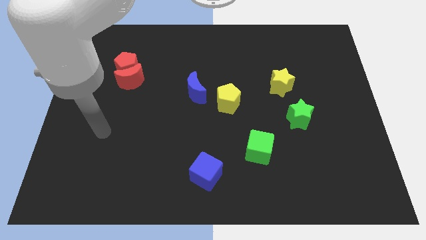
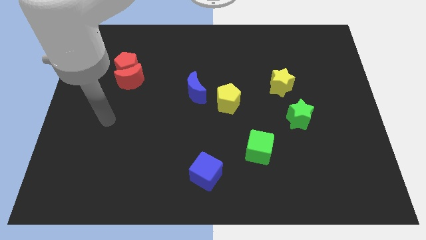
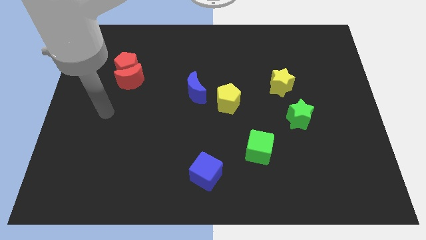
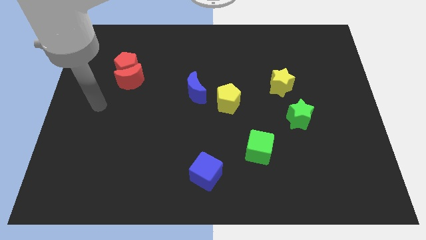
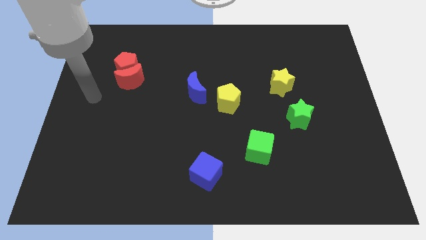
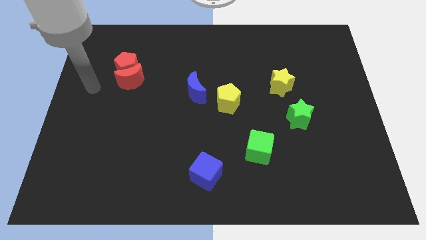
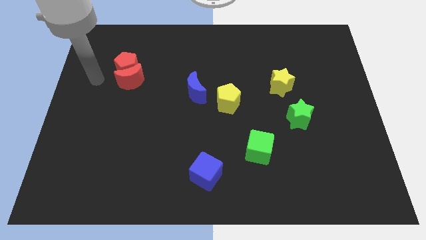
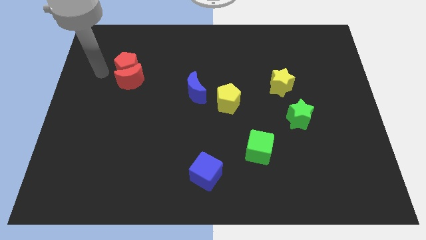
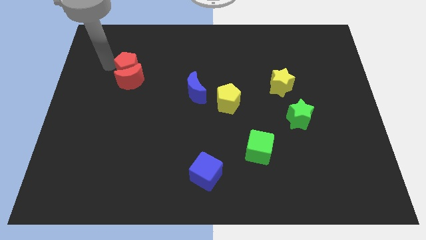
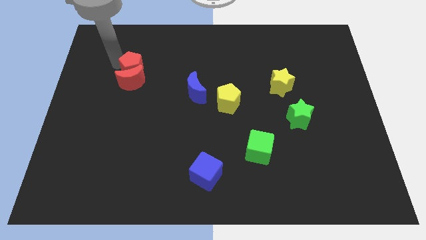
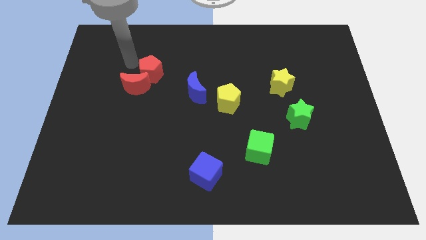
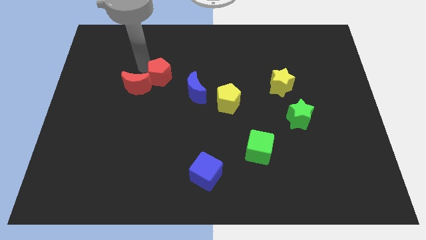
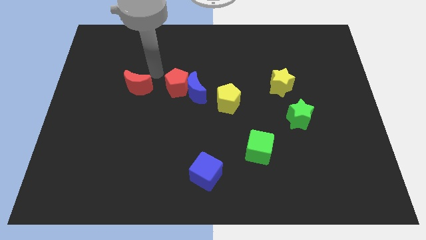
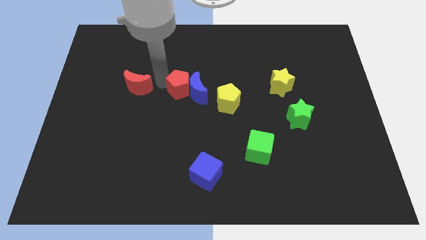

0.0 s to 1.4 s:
pull the red moon apart from the red pentagon

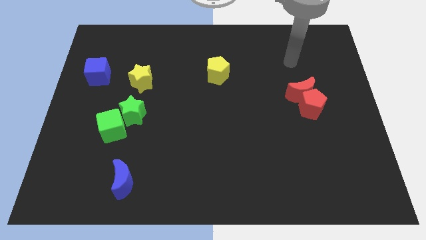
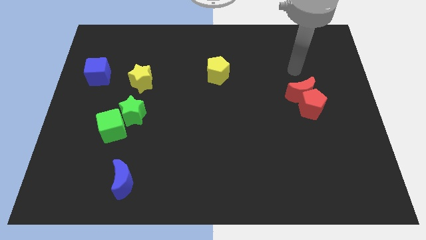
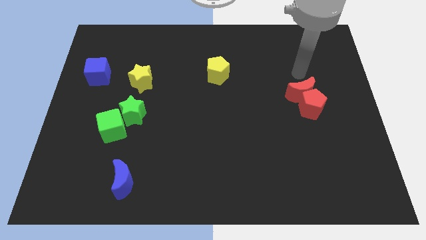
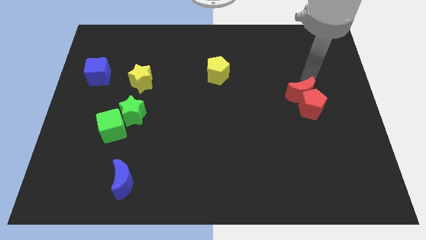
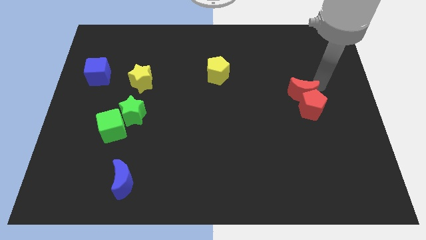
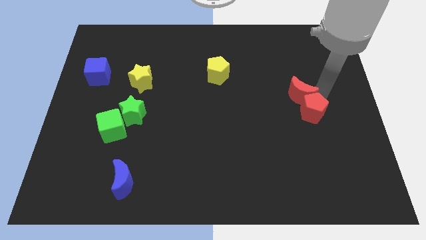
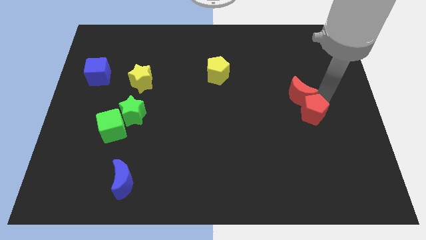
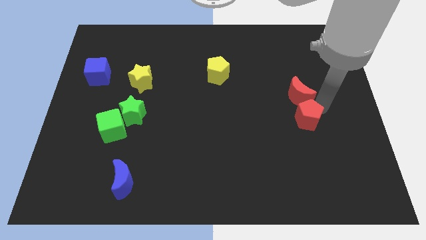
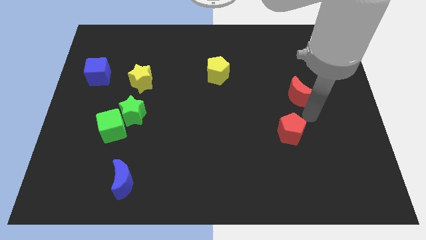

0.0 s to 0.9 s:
separate the red moon from the red pentagon

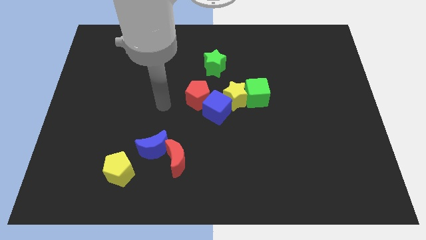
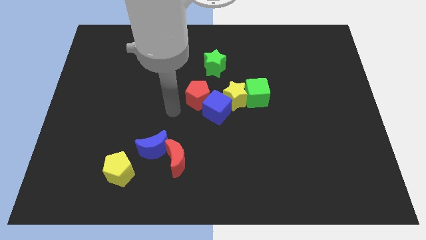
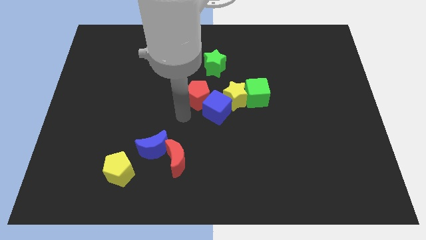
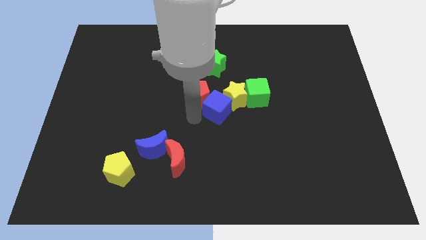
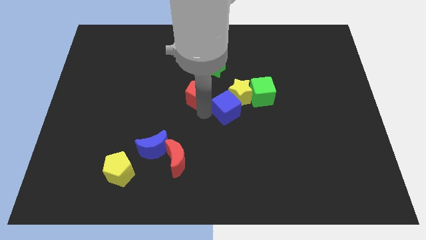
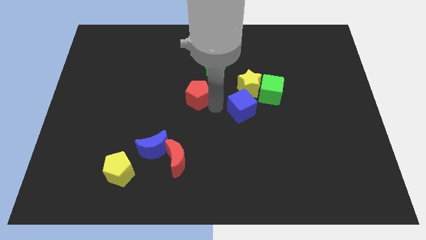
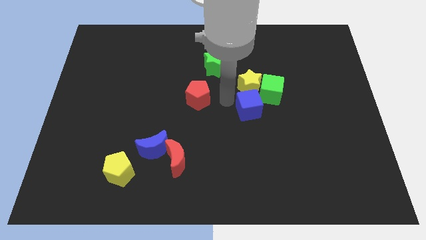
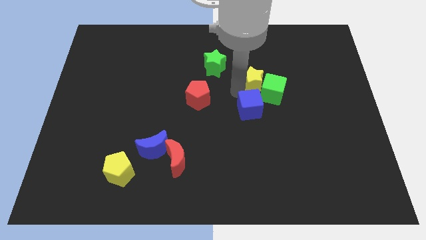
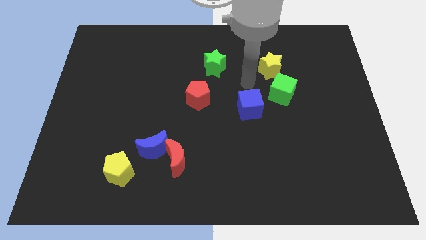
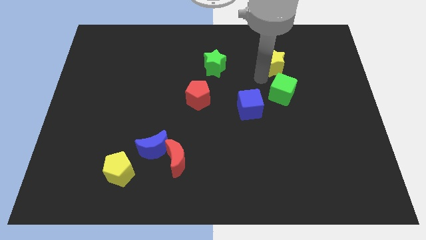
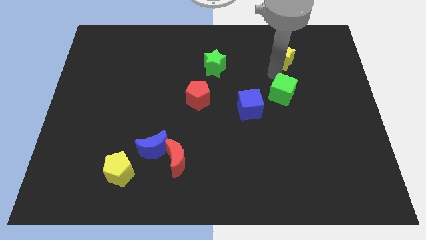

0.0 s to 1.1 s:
pull the green cube apart from the yellow star

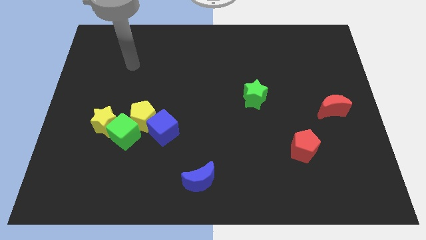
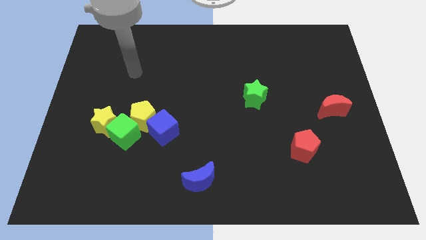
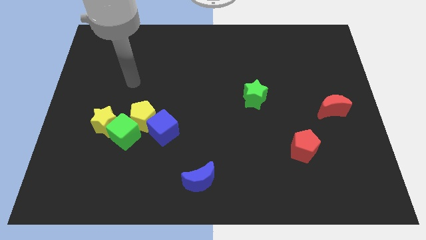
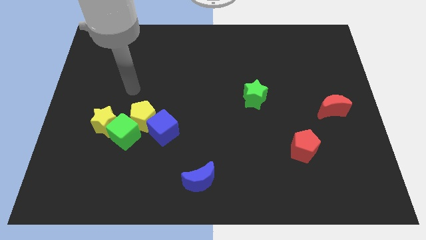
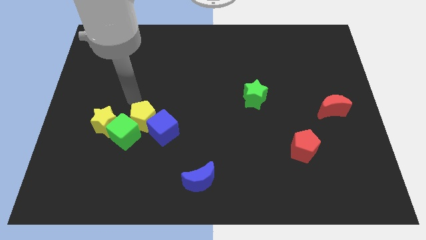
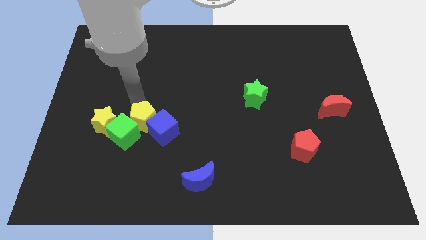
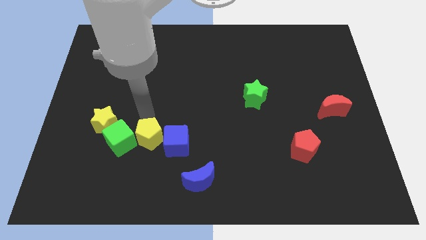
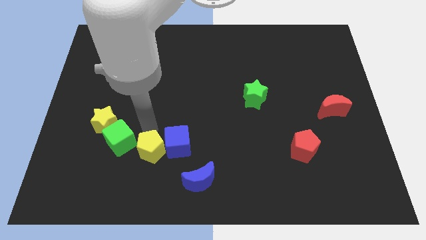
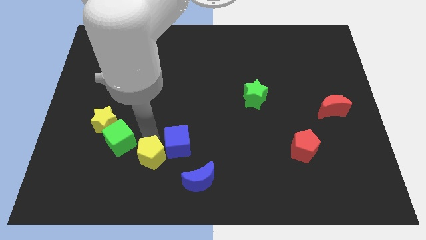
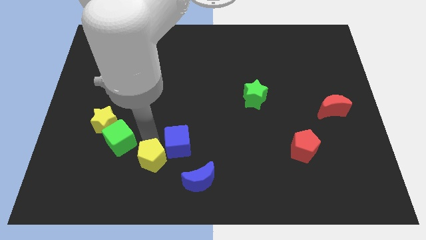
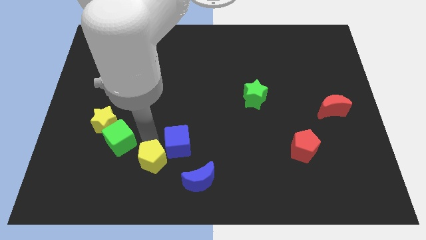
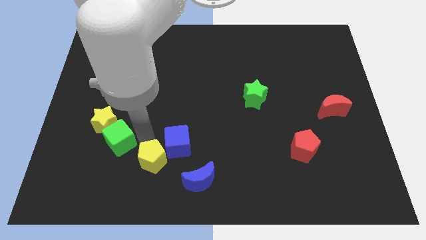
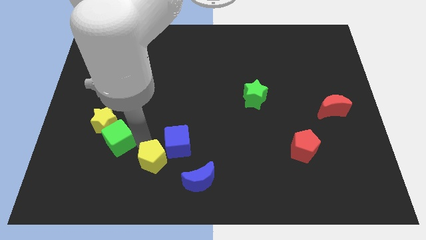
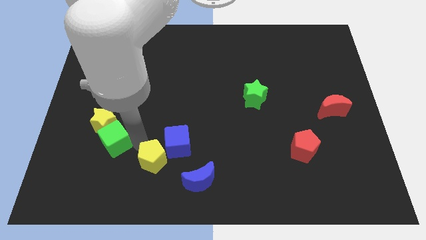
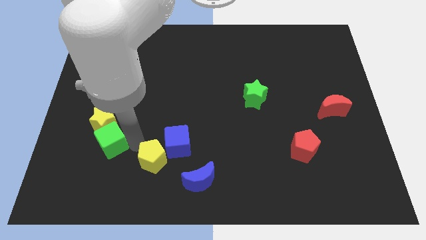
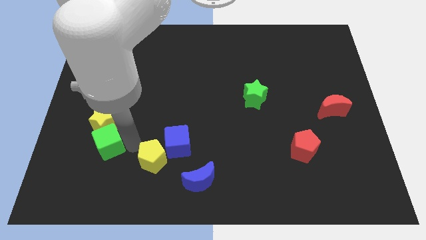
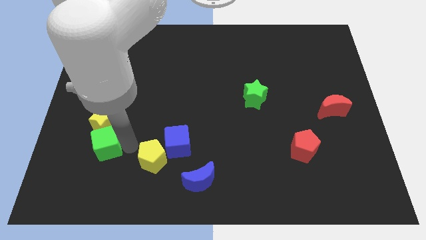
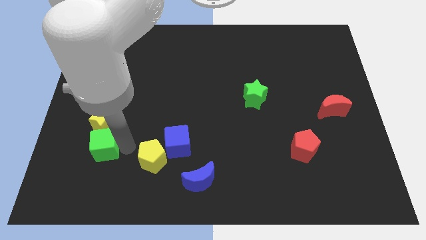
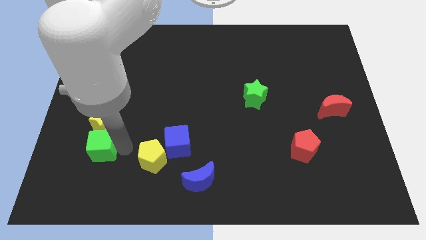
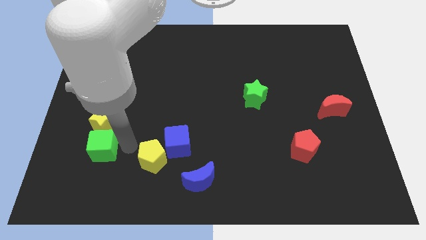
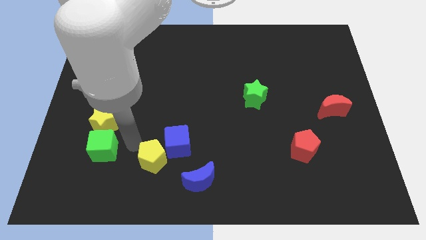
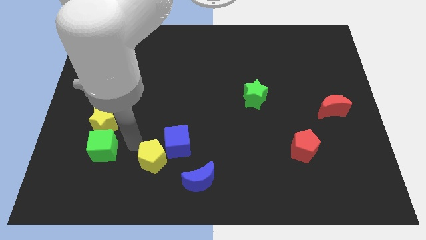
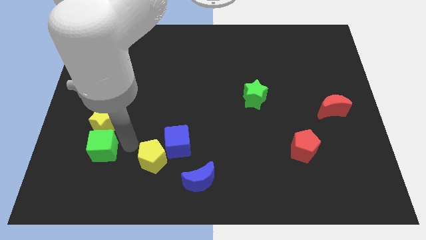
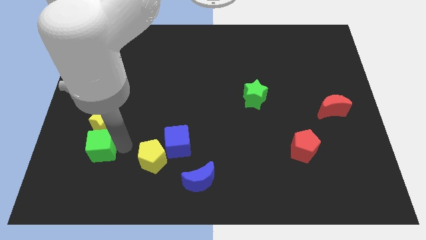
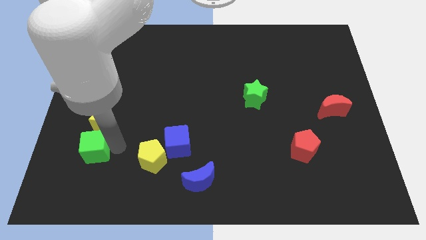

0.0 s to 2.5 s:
separate the green cube from the yellow star, yellow pentagon, and blue cube

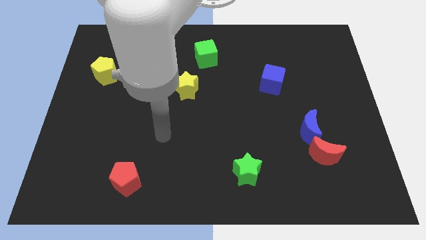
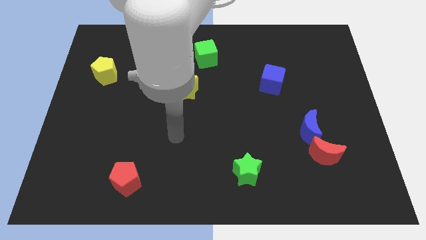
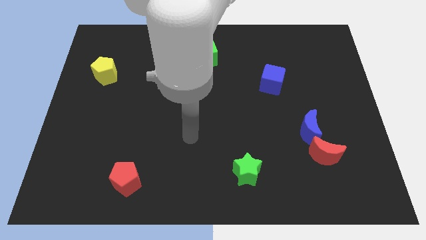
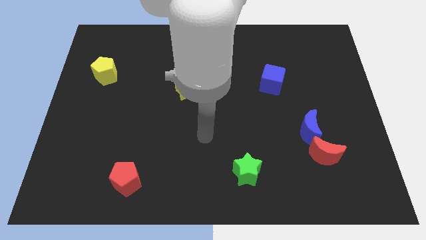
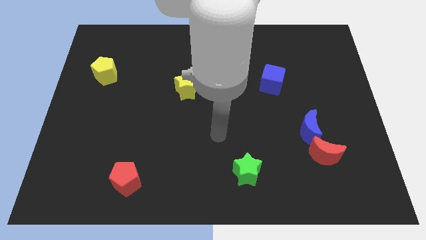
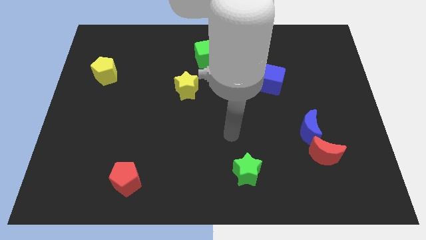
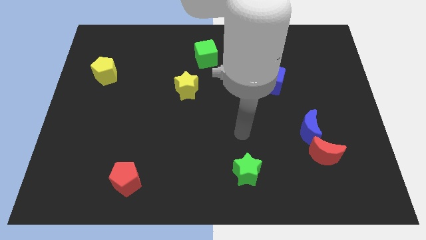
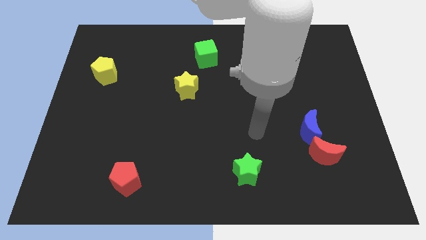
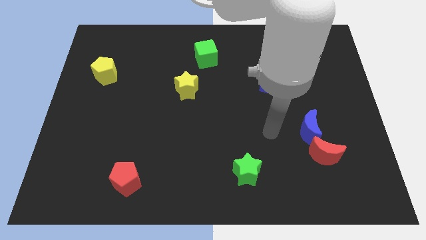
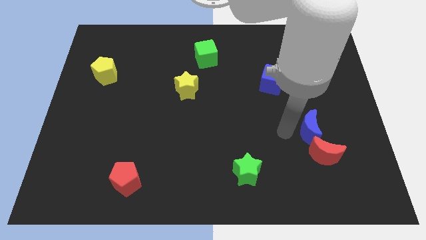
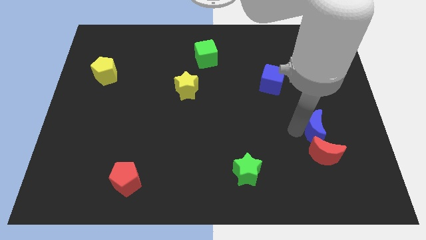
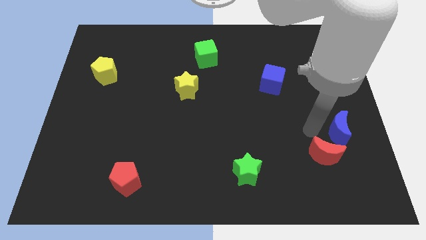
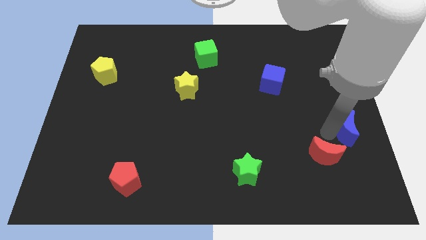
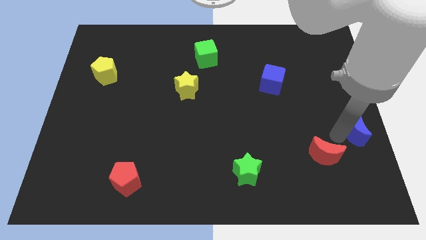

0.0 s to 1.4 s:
pull the red moon apart from the blue moon

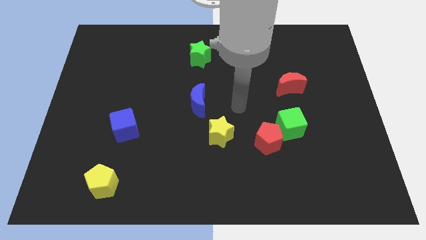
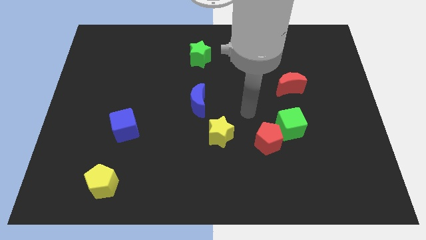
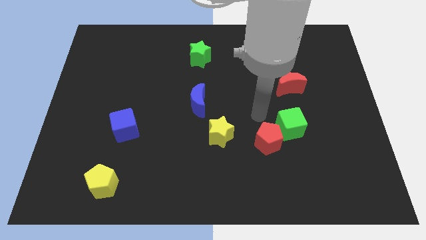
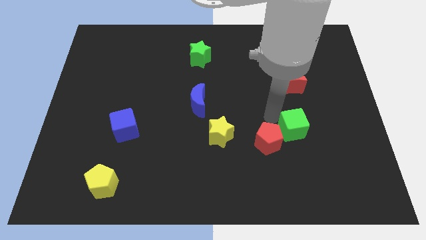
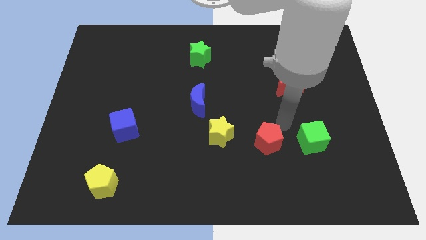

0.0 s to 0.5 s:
separate the red pentagon from the green cube

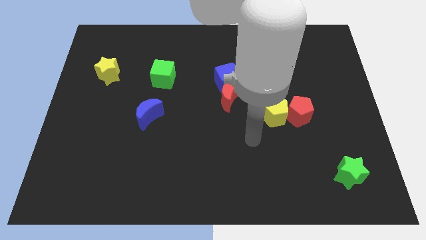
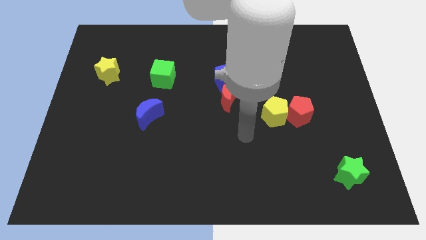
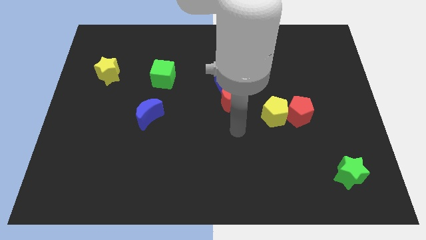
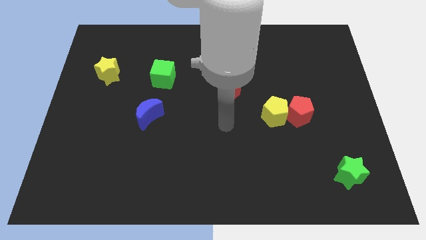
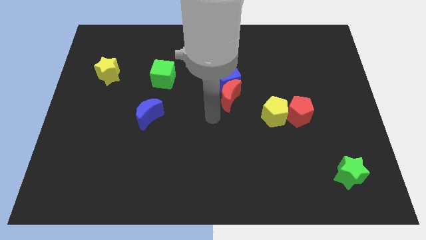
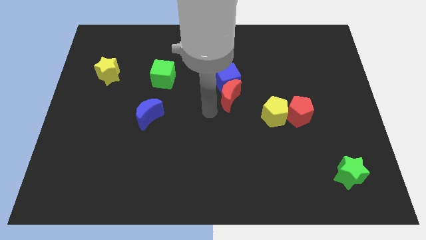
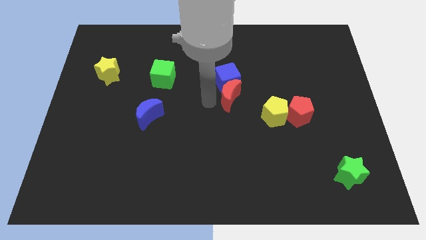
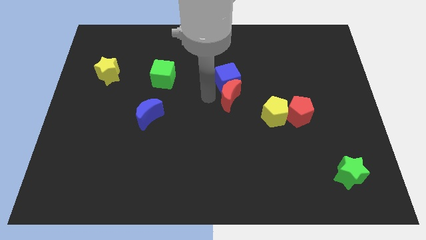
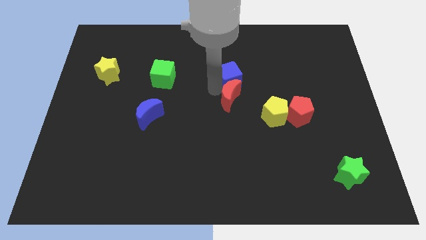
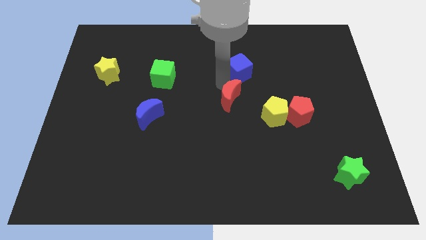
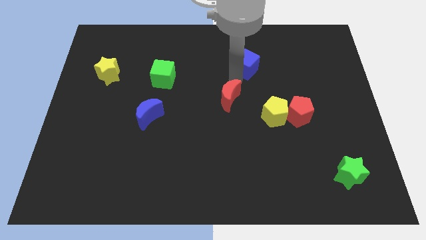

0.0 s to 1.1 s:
pull the red moon apart from the blue cube

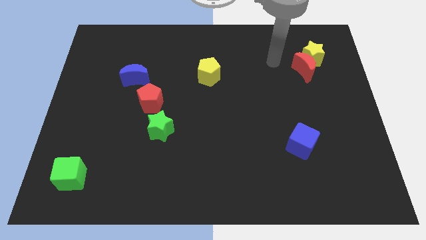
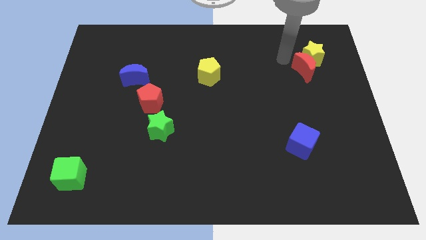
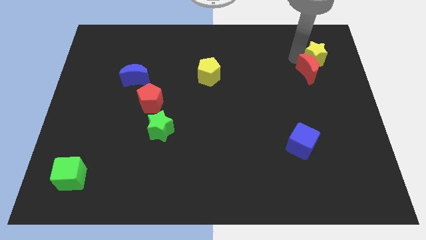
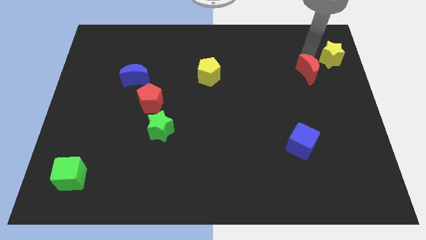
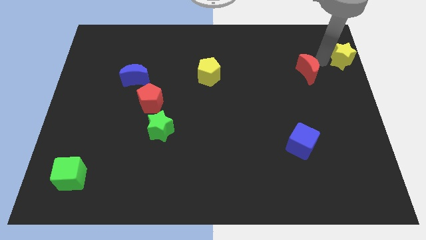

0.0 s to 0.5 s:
move the red moon away from the yellow star

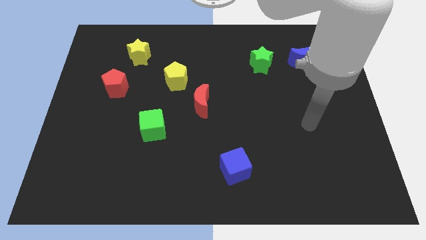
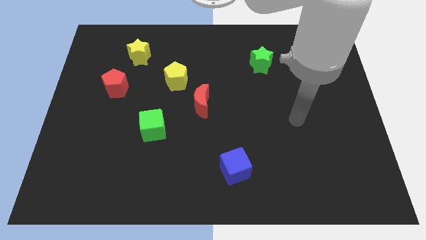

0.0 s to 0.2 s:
separate the red moon from the yellow pentagon
